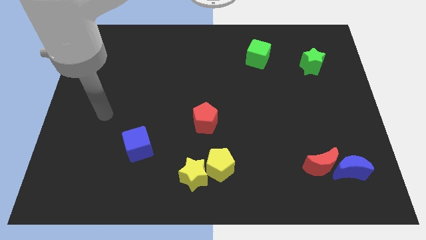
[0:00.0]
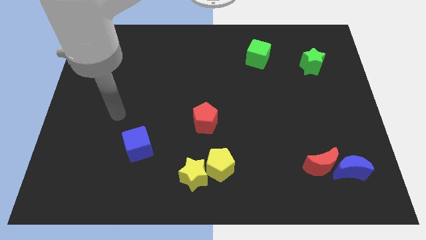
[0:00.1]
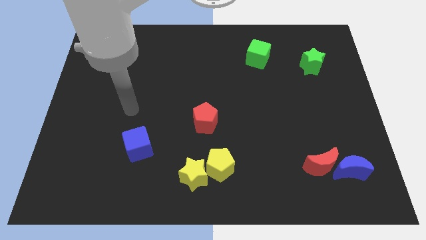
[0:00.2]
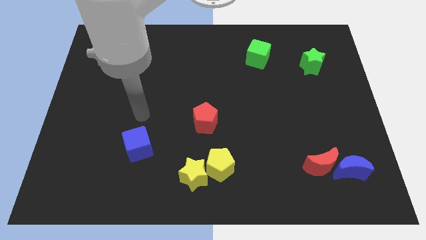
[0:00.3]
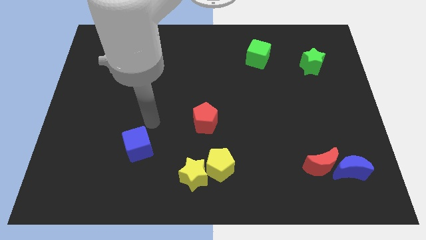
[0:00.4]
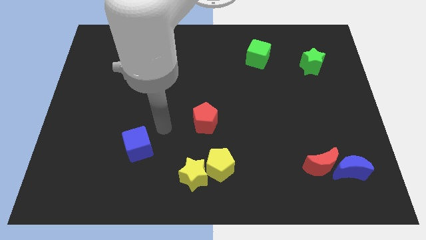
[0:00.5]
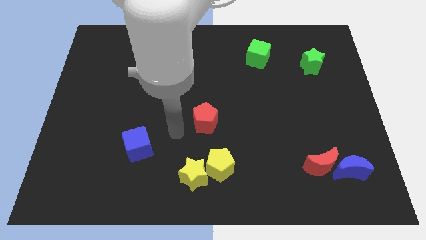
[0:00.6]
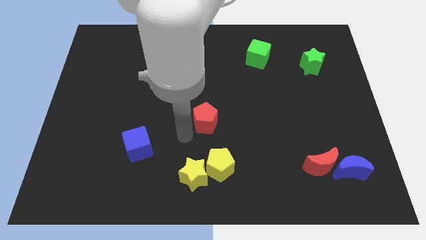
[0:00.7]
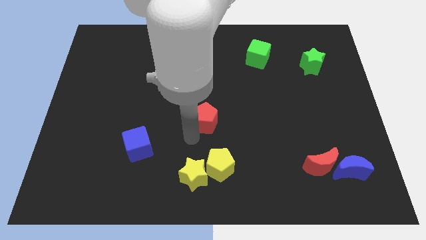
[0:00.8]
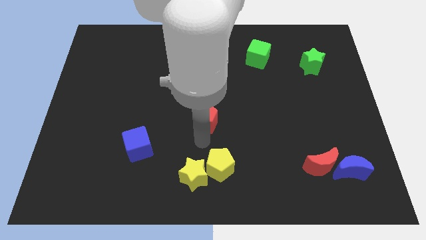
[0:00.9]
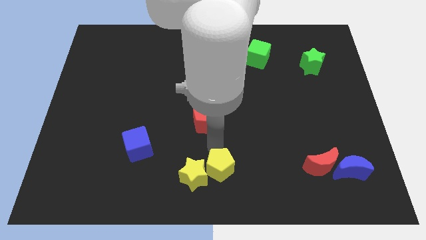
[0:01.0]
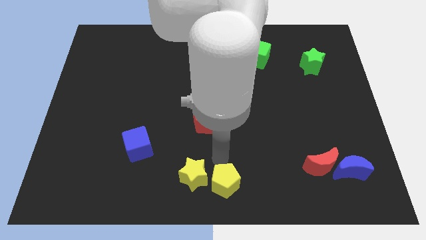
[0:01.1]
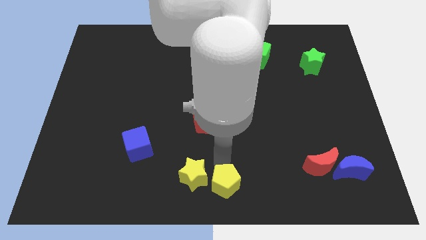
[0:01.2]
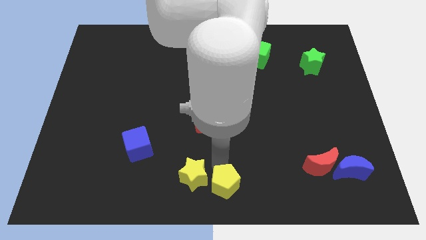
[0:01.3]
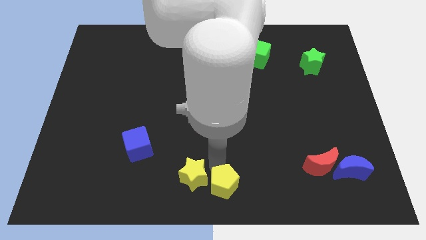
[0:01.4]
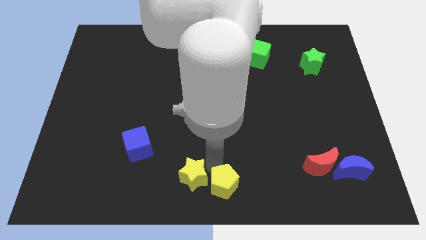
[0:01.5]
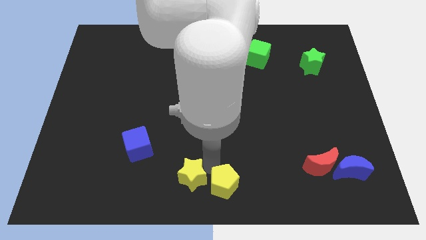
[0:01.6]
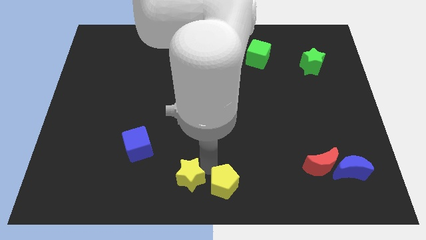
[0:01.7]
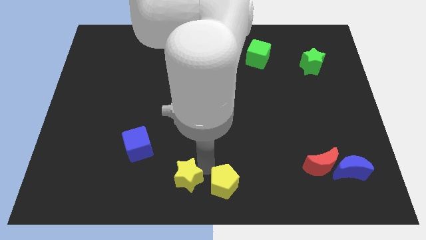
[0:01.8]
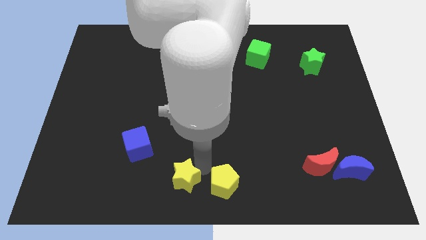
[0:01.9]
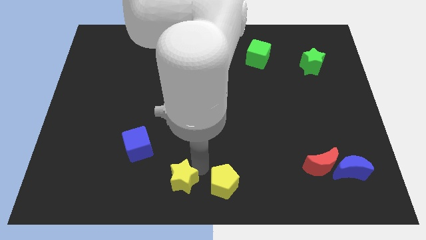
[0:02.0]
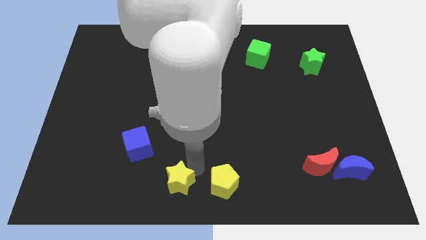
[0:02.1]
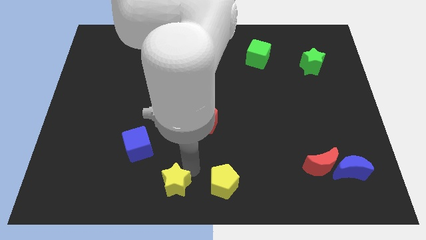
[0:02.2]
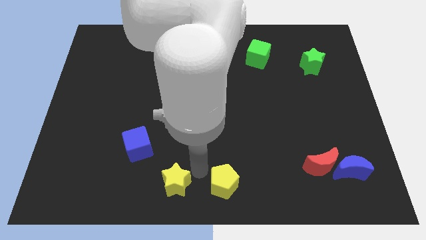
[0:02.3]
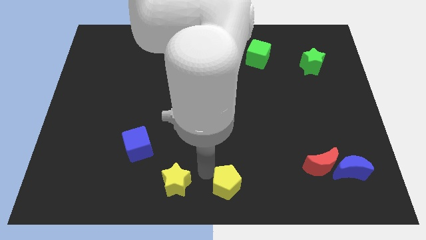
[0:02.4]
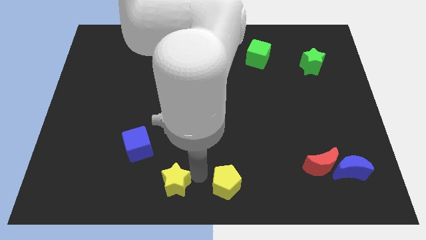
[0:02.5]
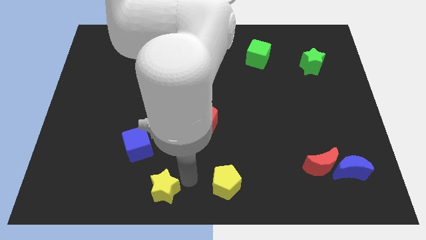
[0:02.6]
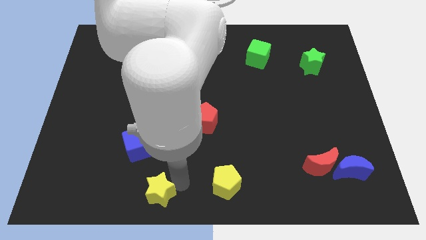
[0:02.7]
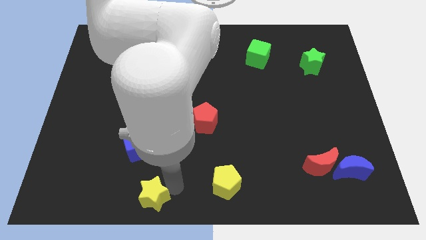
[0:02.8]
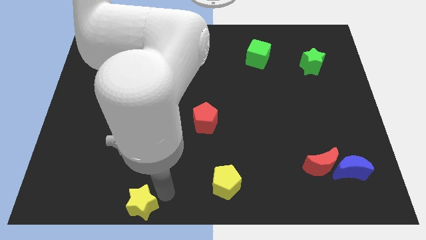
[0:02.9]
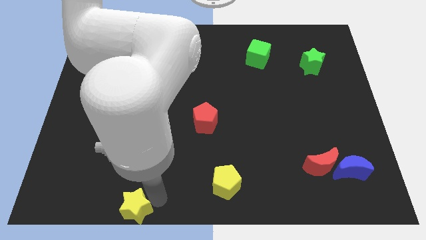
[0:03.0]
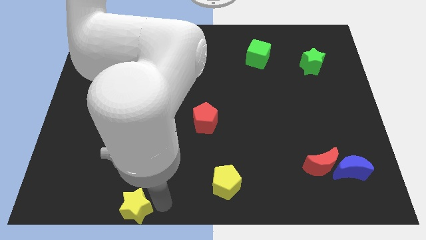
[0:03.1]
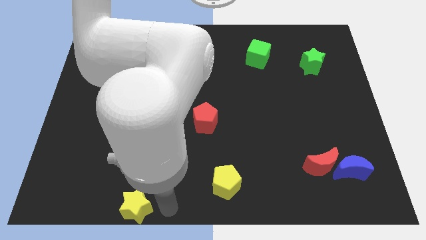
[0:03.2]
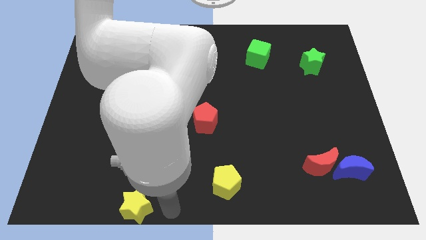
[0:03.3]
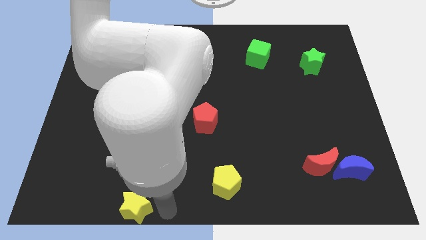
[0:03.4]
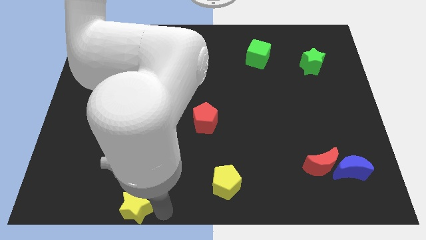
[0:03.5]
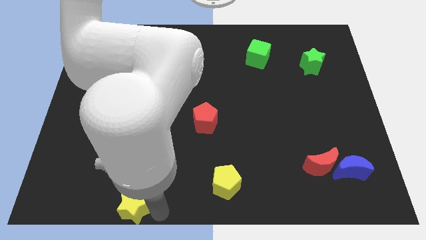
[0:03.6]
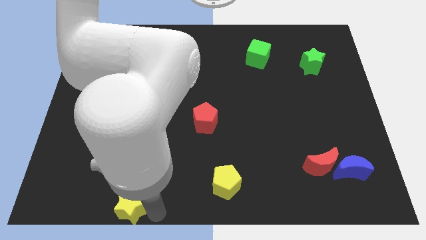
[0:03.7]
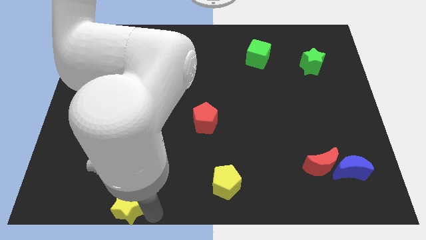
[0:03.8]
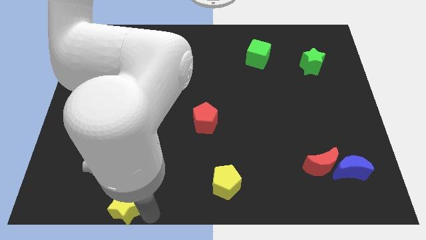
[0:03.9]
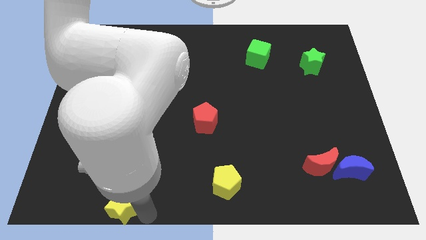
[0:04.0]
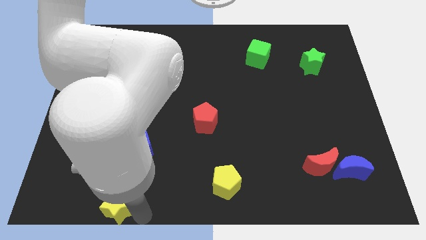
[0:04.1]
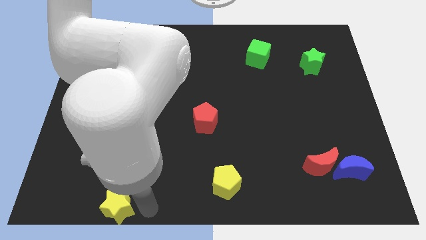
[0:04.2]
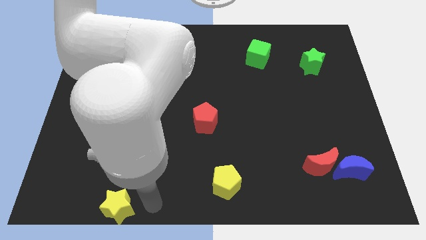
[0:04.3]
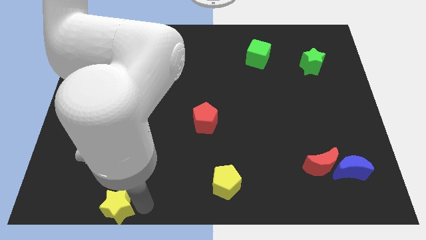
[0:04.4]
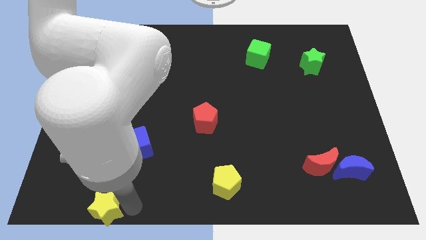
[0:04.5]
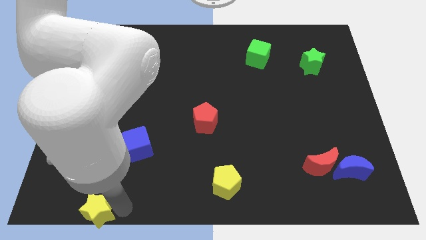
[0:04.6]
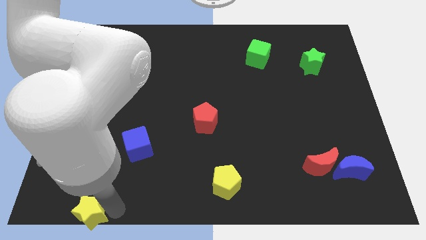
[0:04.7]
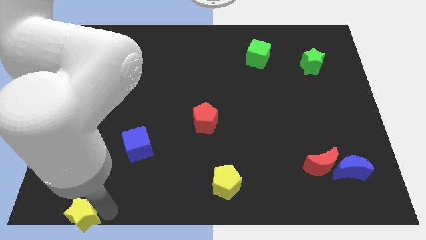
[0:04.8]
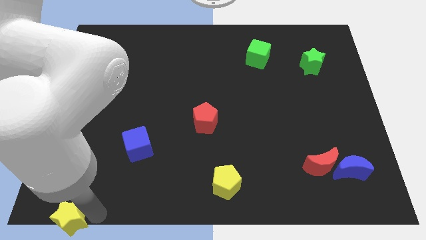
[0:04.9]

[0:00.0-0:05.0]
slide the yellow star to the bottom left corner

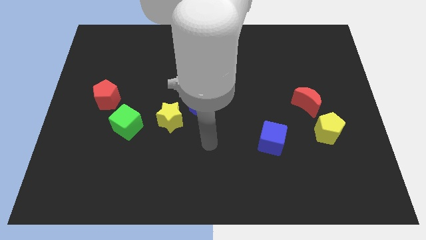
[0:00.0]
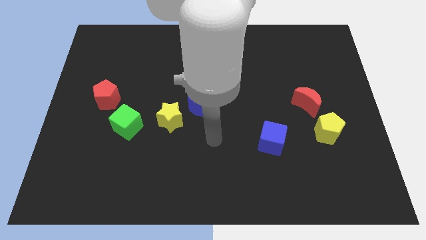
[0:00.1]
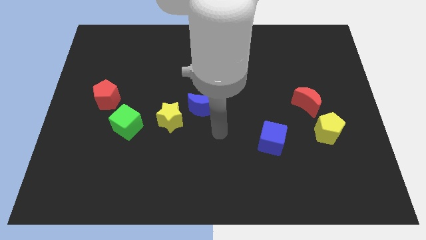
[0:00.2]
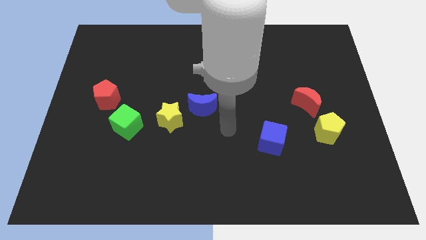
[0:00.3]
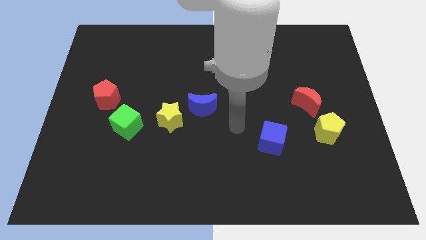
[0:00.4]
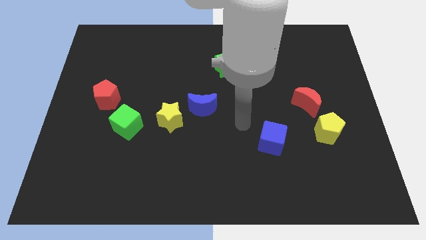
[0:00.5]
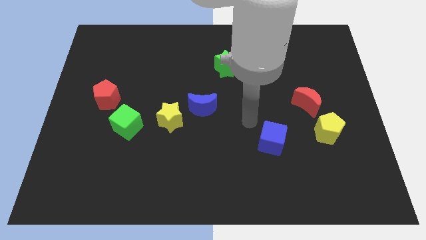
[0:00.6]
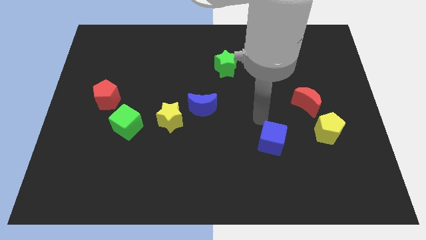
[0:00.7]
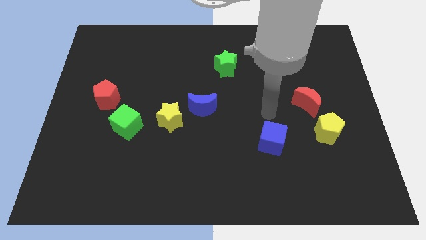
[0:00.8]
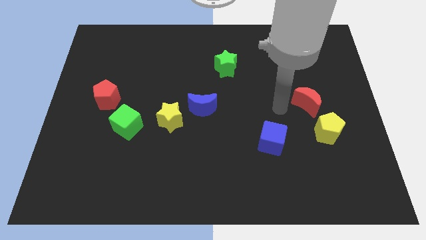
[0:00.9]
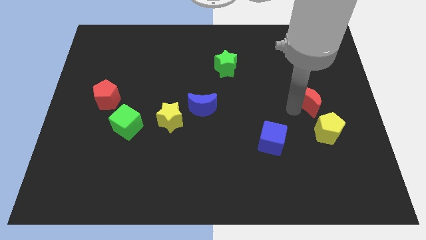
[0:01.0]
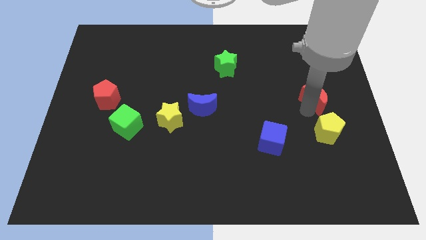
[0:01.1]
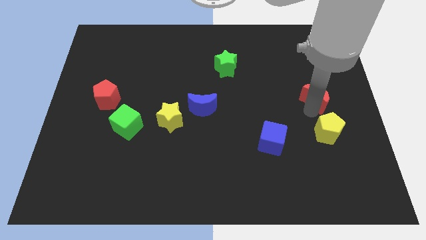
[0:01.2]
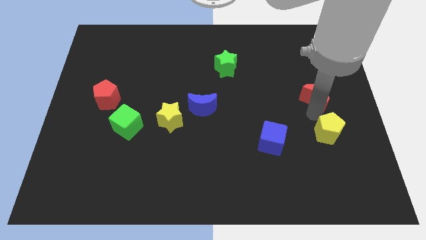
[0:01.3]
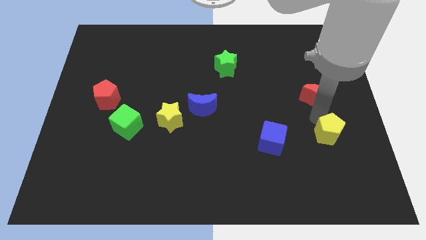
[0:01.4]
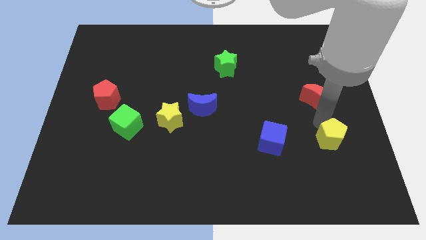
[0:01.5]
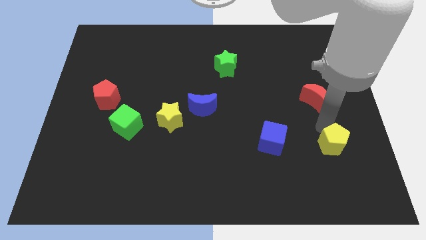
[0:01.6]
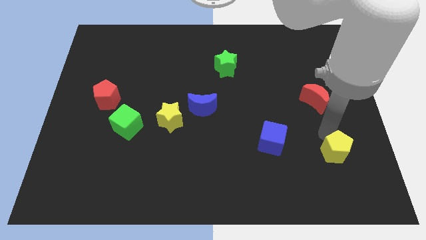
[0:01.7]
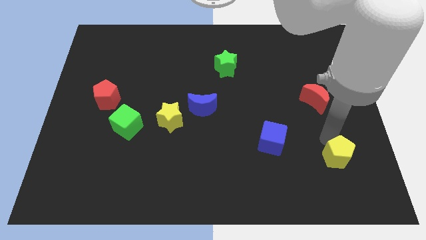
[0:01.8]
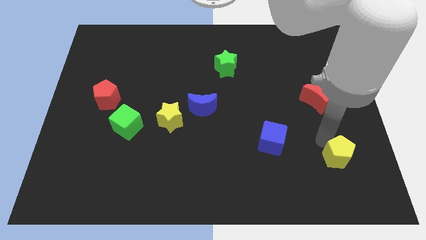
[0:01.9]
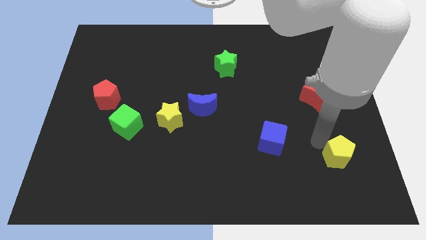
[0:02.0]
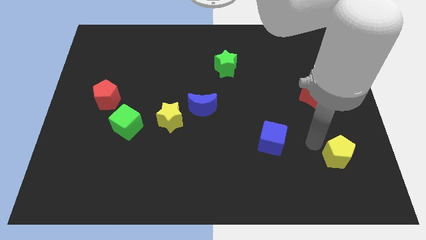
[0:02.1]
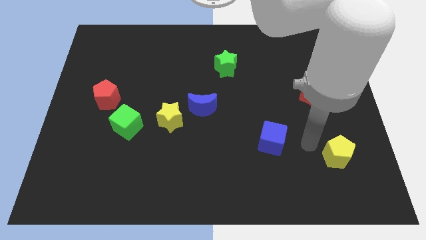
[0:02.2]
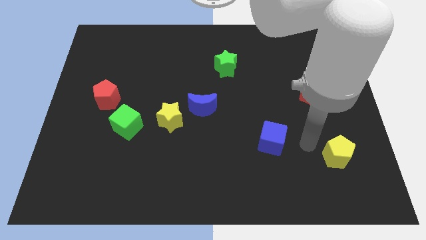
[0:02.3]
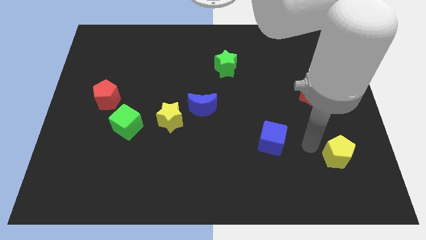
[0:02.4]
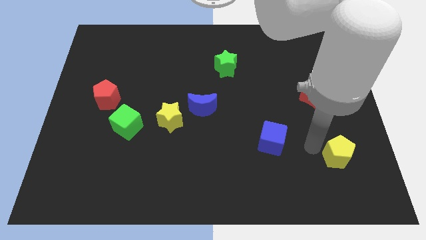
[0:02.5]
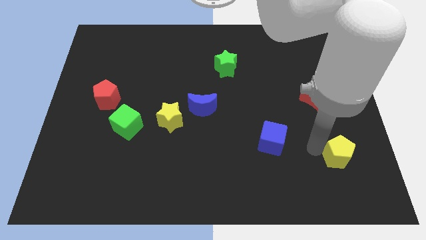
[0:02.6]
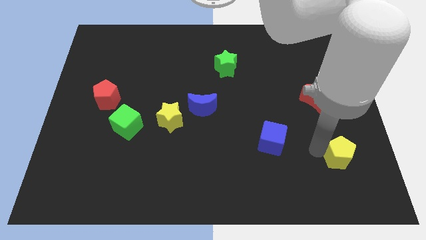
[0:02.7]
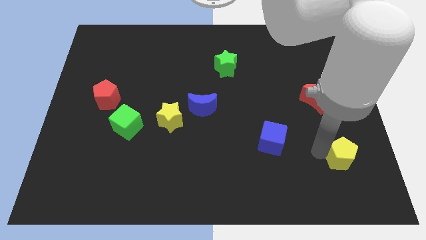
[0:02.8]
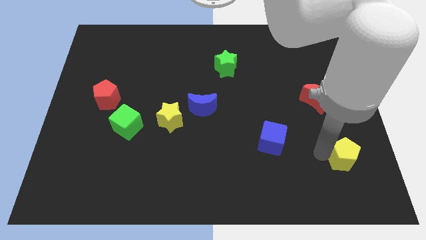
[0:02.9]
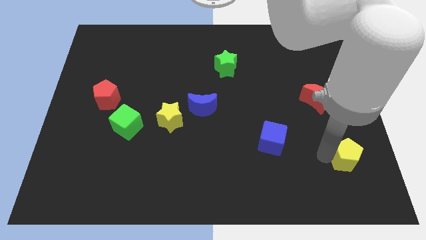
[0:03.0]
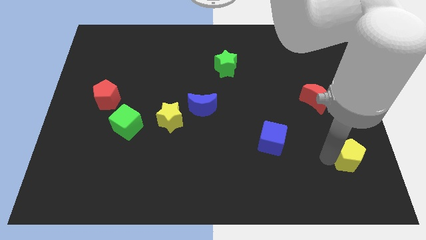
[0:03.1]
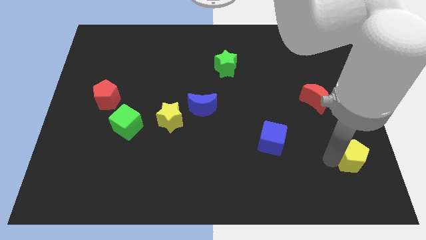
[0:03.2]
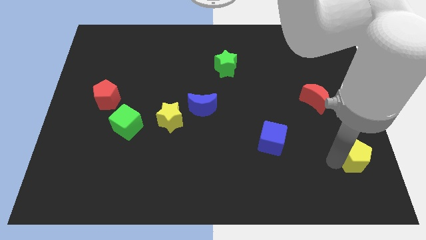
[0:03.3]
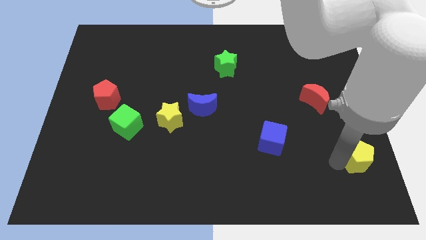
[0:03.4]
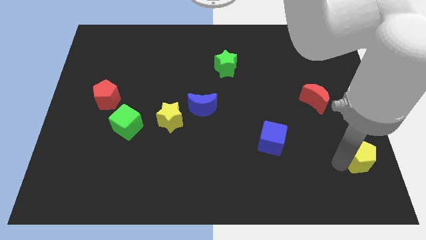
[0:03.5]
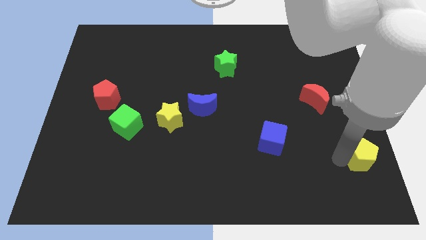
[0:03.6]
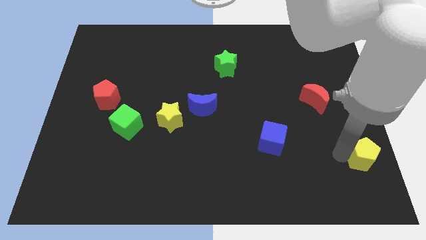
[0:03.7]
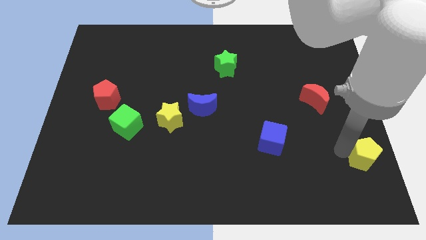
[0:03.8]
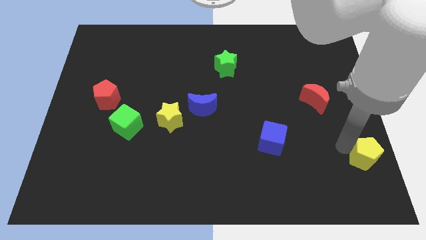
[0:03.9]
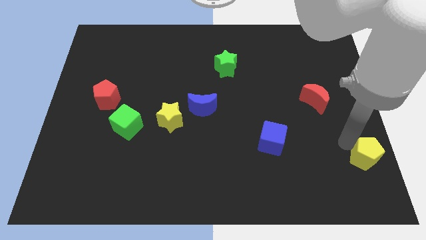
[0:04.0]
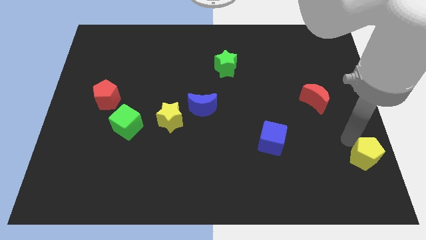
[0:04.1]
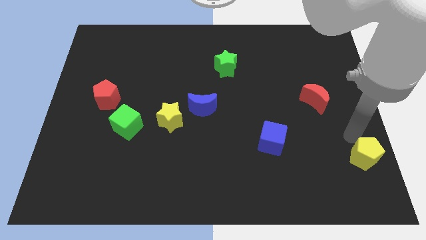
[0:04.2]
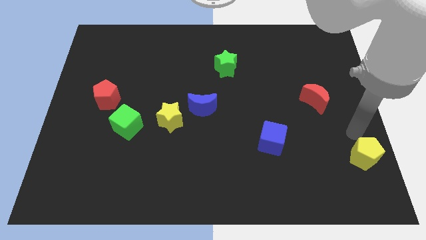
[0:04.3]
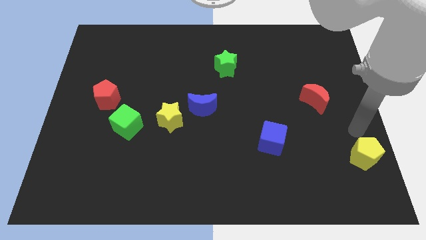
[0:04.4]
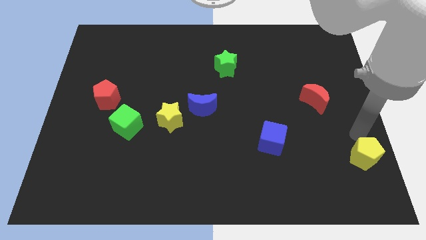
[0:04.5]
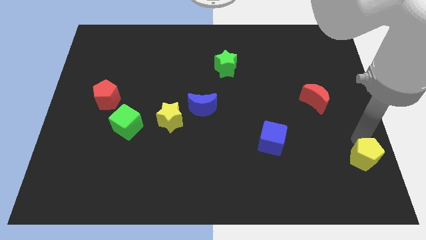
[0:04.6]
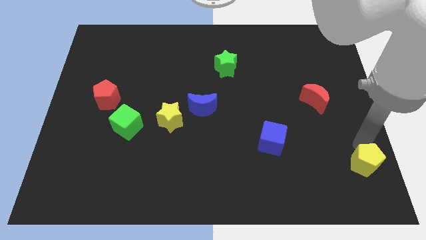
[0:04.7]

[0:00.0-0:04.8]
slide the yellow pentagon to the lower right corner
